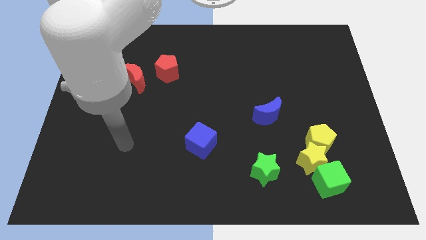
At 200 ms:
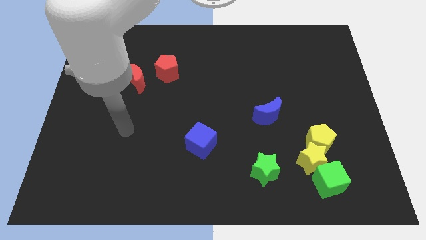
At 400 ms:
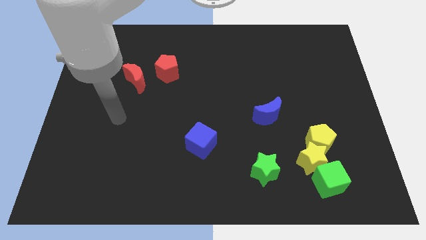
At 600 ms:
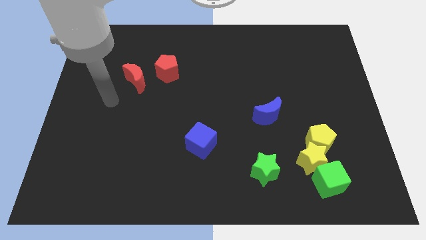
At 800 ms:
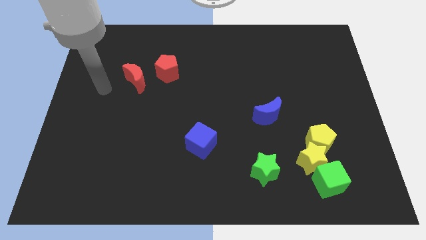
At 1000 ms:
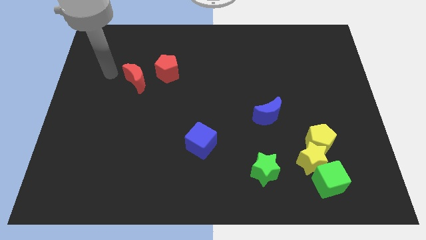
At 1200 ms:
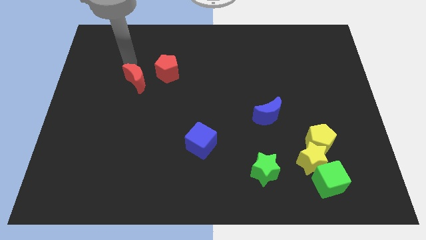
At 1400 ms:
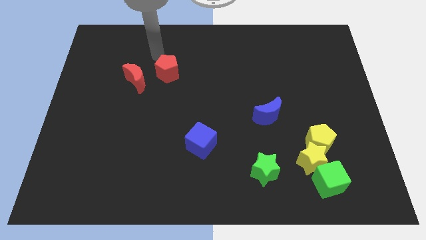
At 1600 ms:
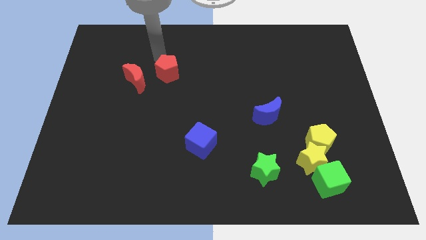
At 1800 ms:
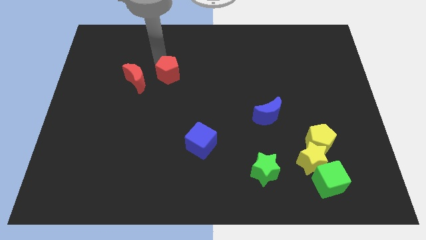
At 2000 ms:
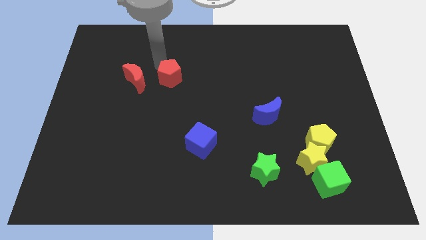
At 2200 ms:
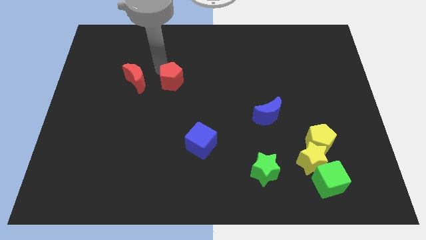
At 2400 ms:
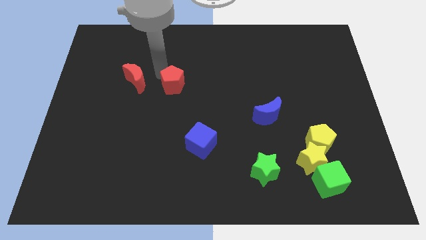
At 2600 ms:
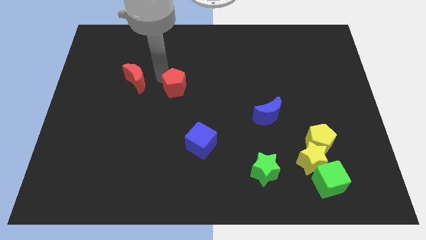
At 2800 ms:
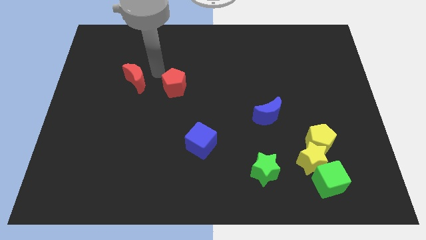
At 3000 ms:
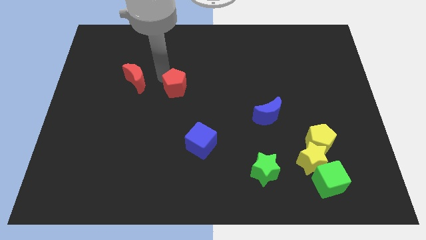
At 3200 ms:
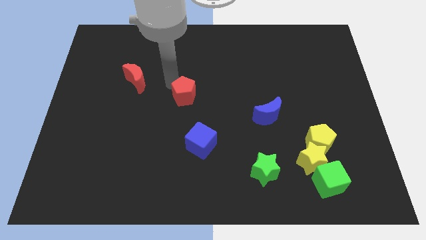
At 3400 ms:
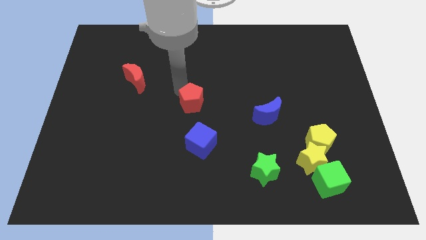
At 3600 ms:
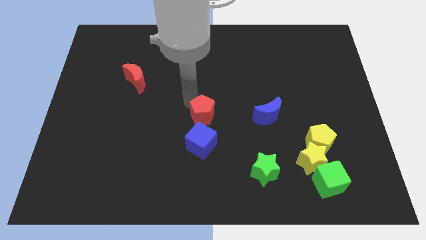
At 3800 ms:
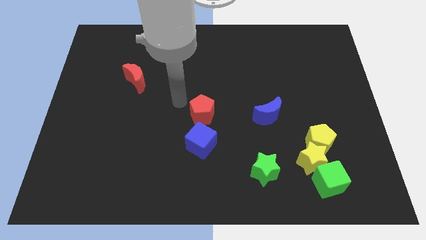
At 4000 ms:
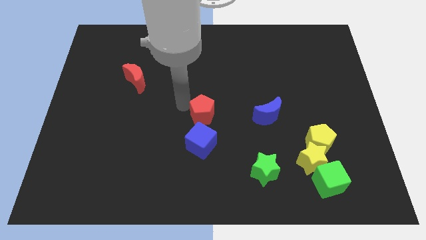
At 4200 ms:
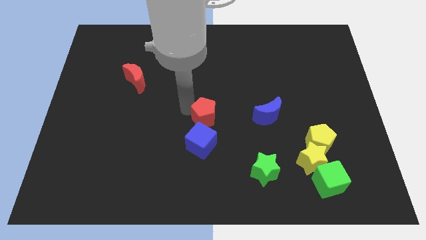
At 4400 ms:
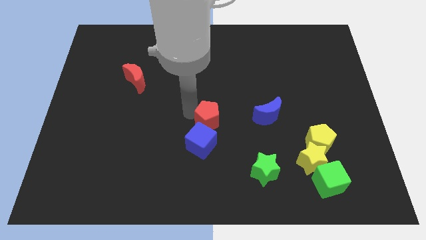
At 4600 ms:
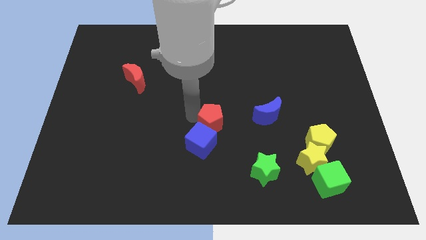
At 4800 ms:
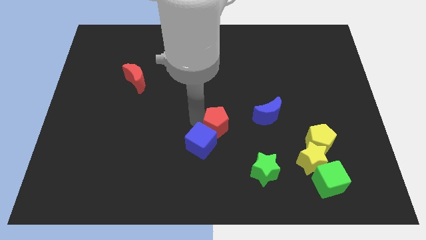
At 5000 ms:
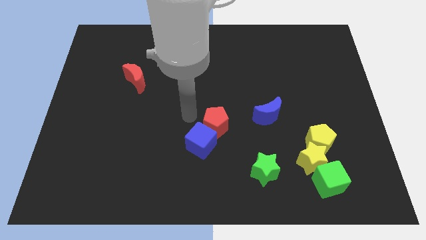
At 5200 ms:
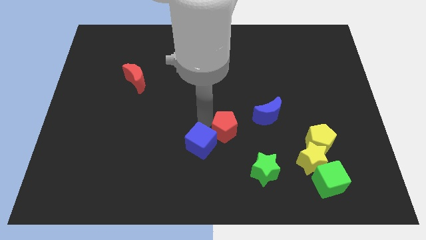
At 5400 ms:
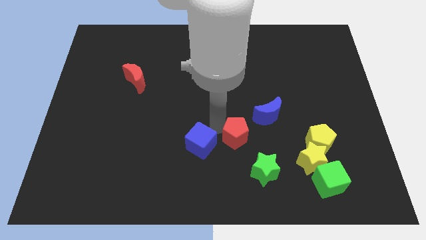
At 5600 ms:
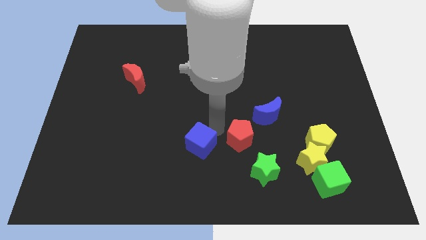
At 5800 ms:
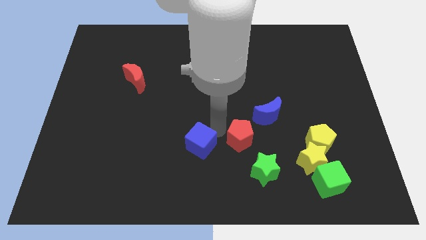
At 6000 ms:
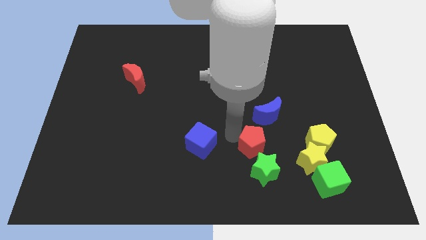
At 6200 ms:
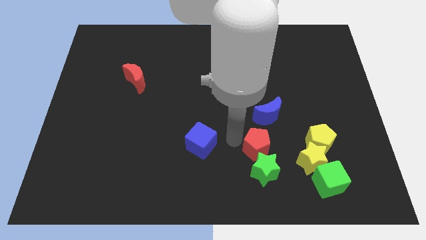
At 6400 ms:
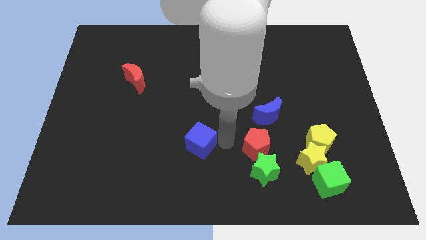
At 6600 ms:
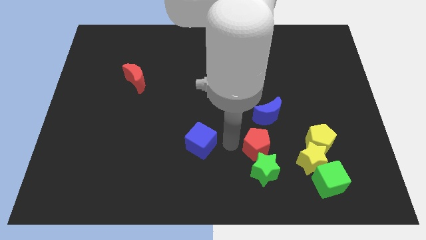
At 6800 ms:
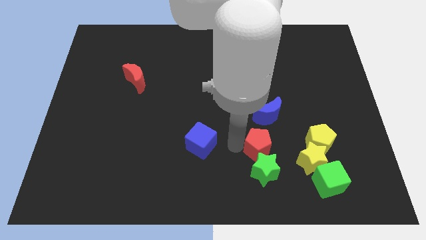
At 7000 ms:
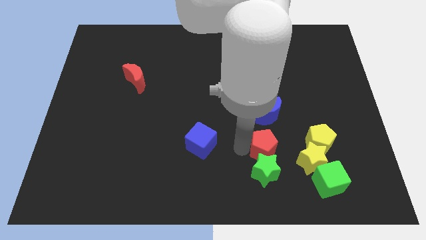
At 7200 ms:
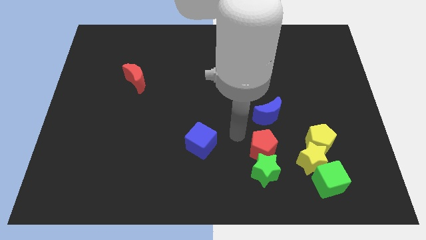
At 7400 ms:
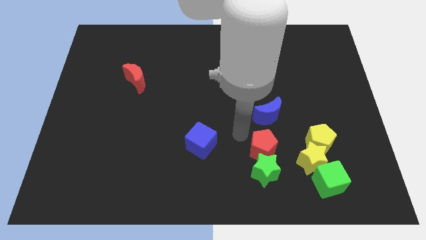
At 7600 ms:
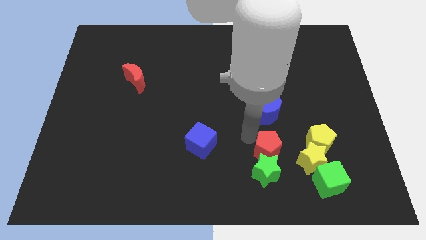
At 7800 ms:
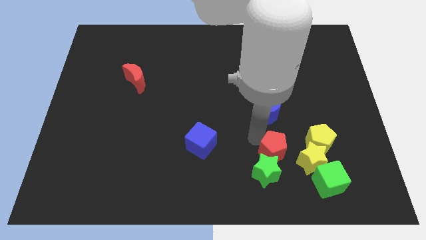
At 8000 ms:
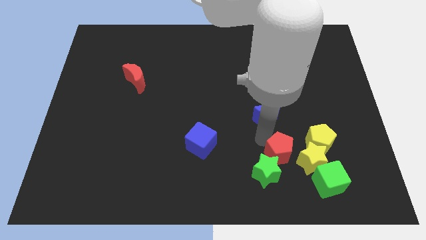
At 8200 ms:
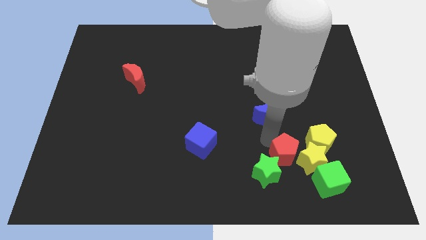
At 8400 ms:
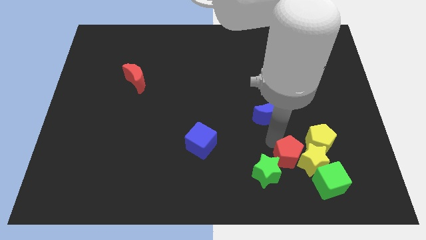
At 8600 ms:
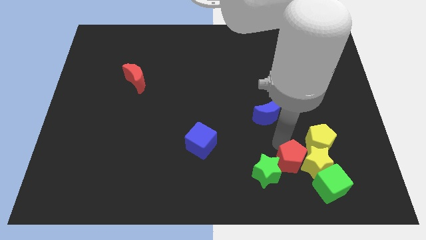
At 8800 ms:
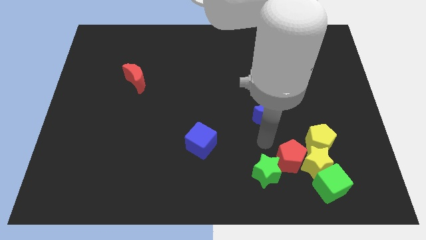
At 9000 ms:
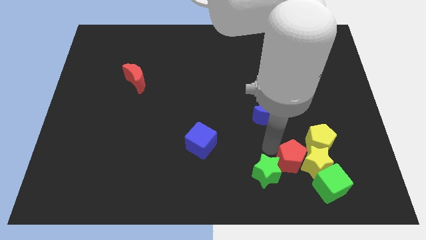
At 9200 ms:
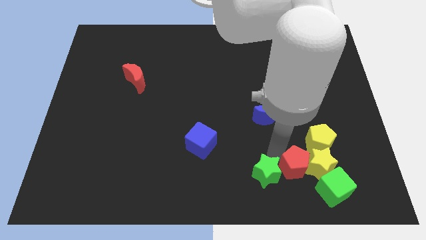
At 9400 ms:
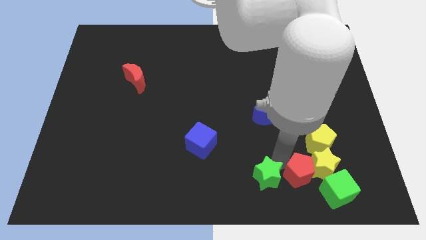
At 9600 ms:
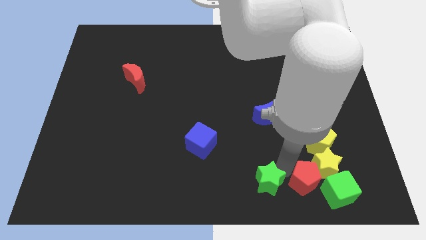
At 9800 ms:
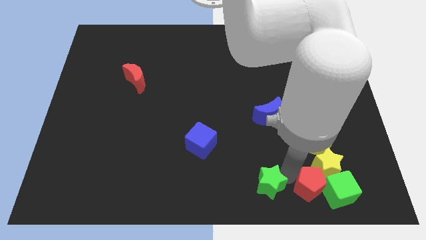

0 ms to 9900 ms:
move the red pentagon close to the green cube

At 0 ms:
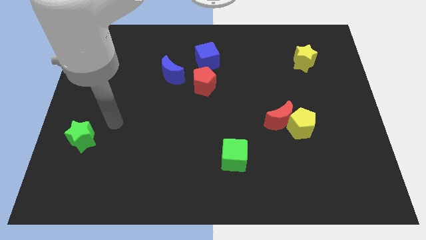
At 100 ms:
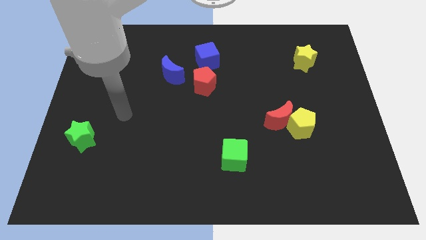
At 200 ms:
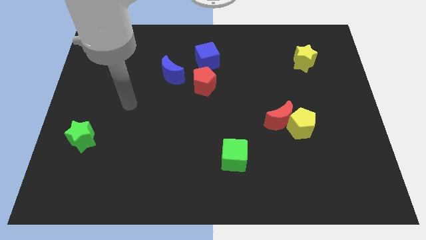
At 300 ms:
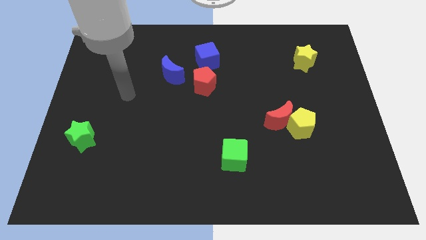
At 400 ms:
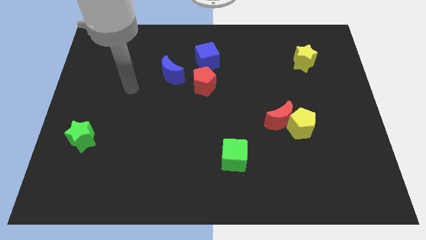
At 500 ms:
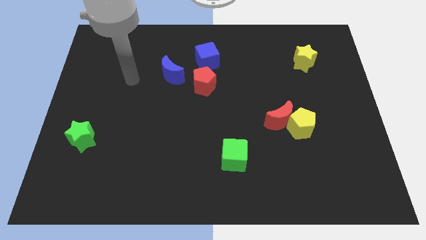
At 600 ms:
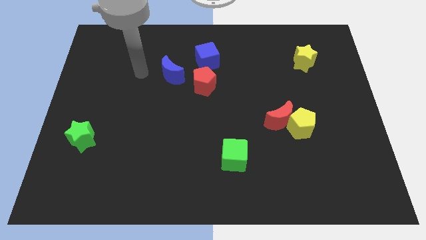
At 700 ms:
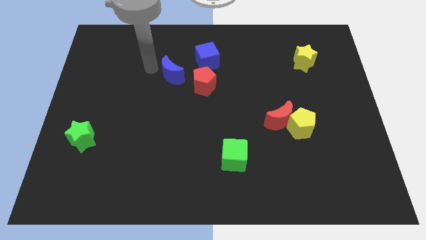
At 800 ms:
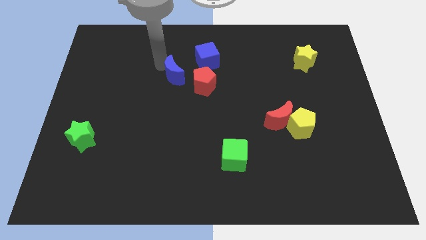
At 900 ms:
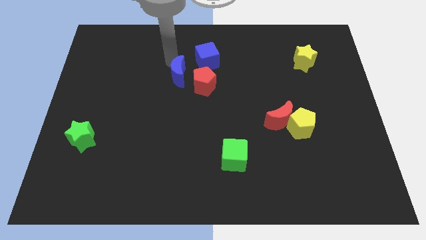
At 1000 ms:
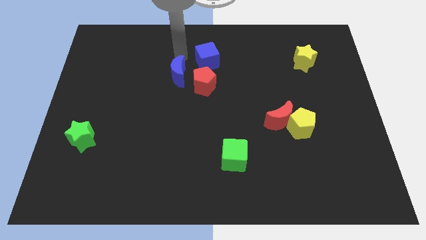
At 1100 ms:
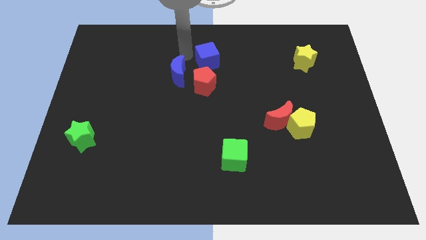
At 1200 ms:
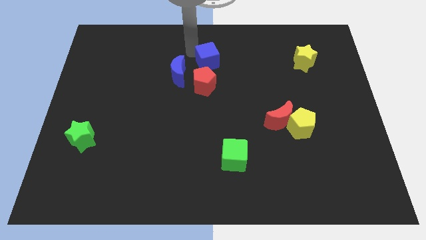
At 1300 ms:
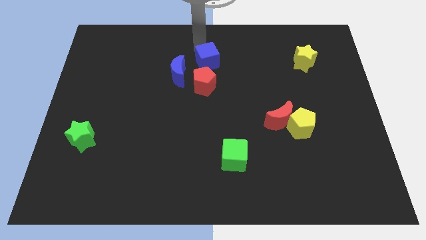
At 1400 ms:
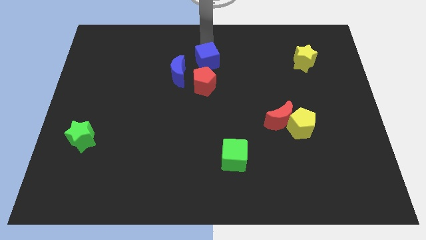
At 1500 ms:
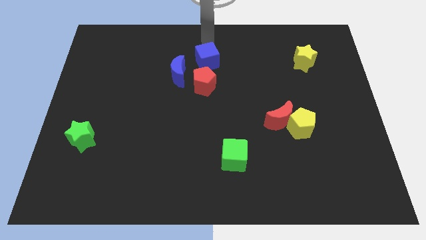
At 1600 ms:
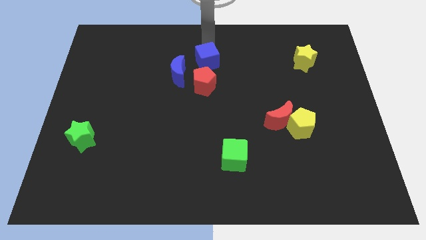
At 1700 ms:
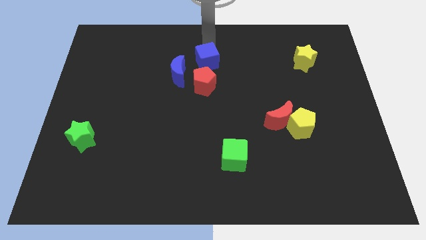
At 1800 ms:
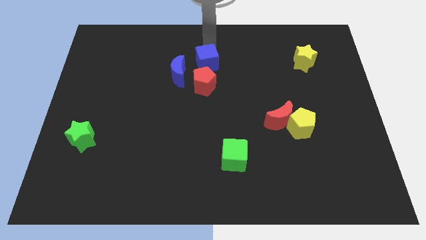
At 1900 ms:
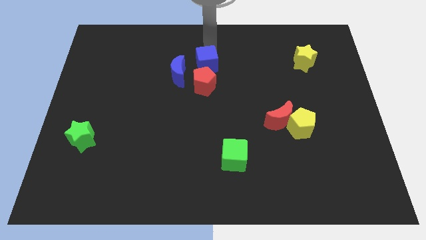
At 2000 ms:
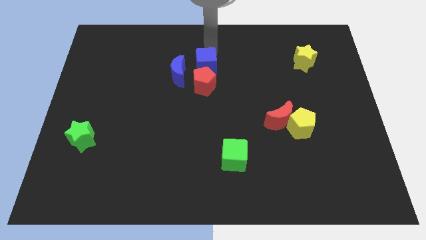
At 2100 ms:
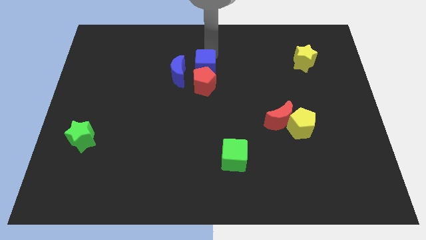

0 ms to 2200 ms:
move the blue cube to the red pentagon
